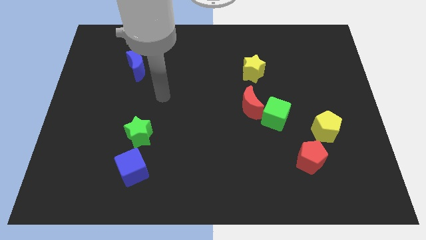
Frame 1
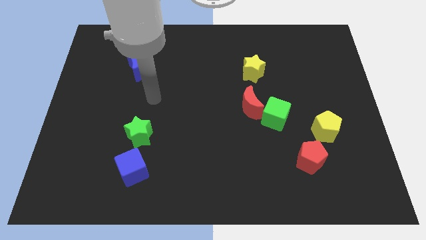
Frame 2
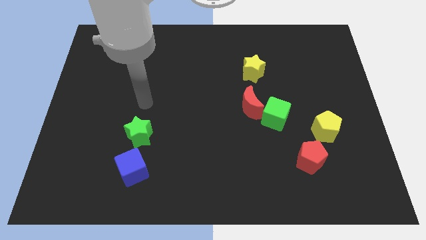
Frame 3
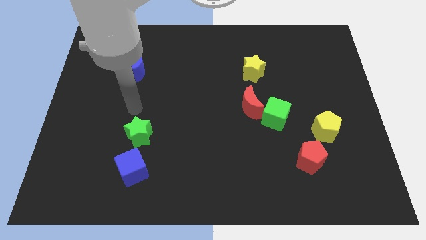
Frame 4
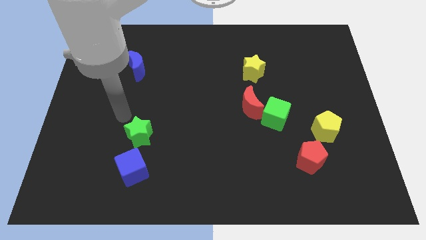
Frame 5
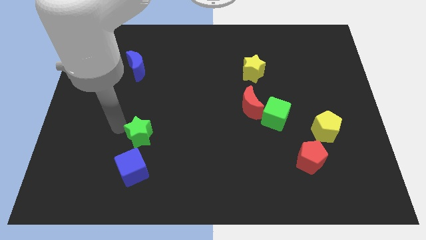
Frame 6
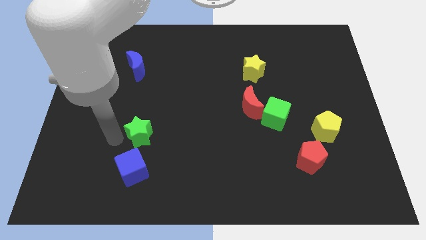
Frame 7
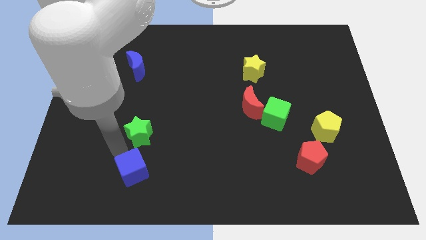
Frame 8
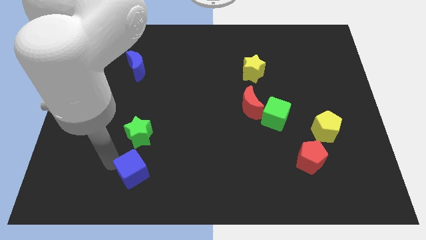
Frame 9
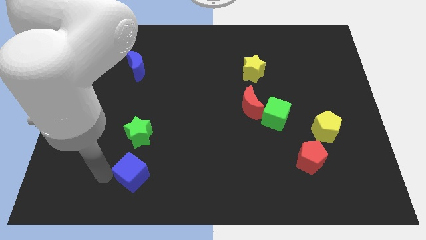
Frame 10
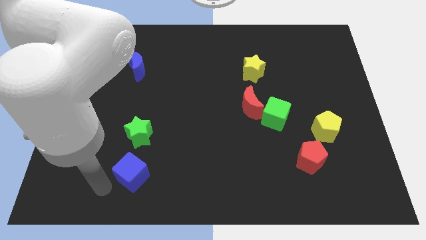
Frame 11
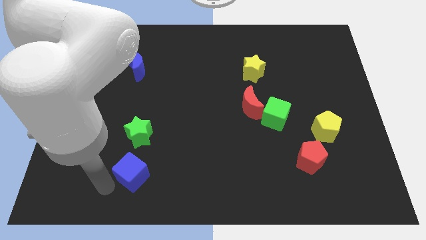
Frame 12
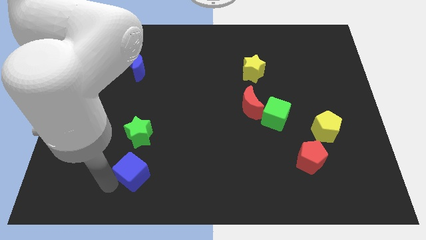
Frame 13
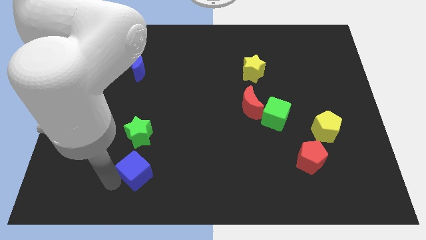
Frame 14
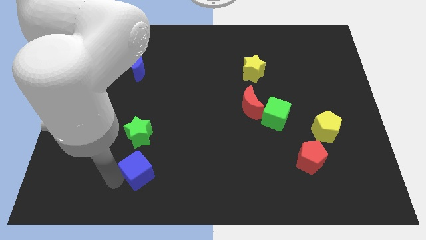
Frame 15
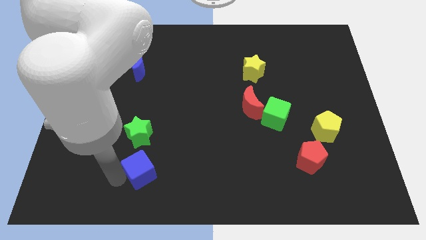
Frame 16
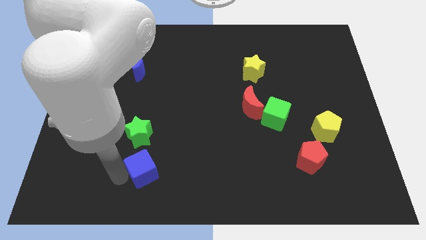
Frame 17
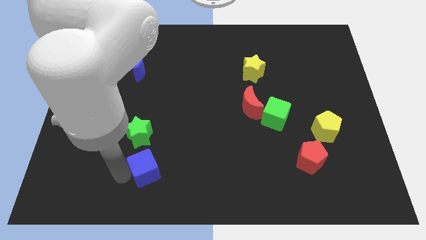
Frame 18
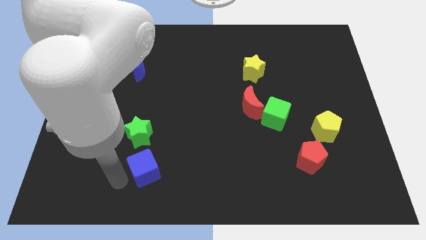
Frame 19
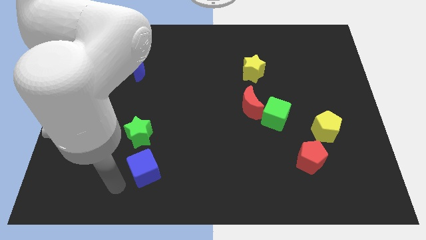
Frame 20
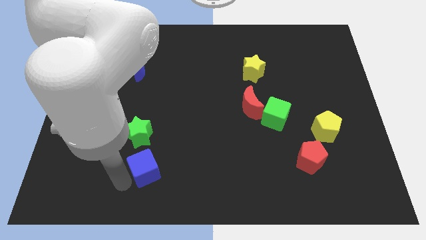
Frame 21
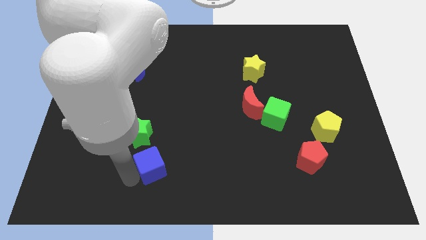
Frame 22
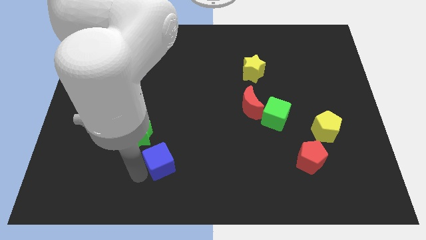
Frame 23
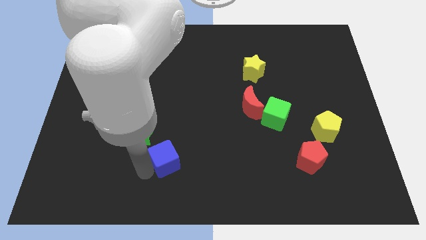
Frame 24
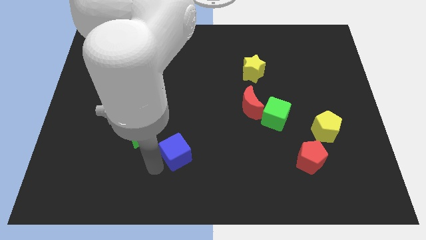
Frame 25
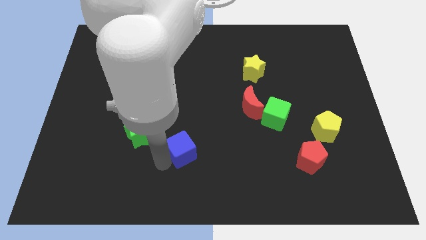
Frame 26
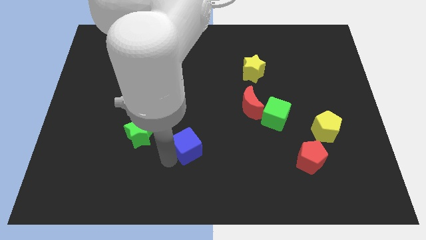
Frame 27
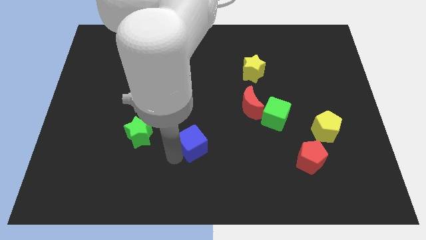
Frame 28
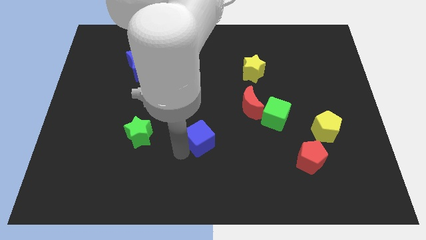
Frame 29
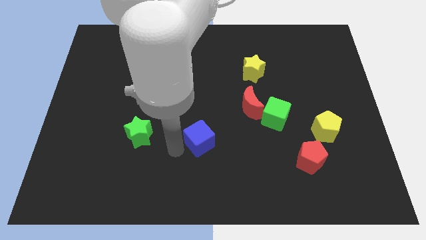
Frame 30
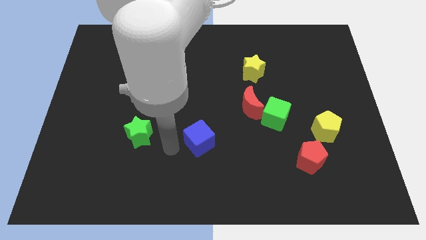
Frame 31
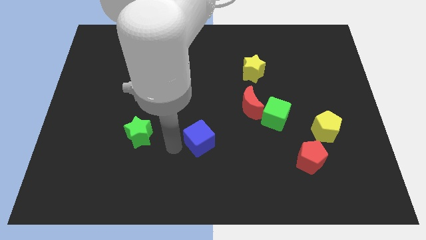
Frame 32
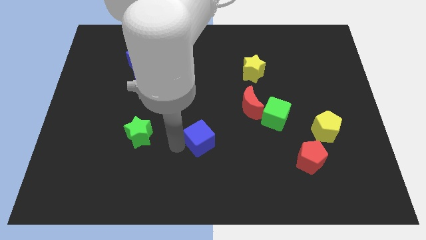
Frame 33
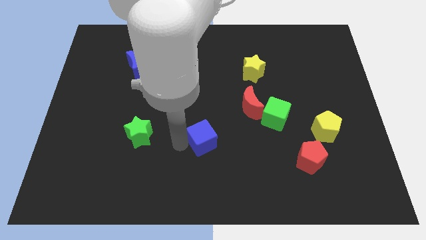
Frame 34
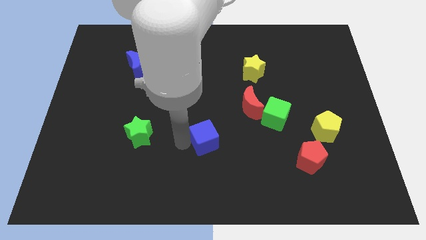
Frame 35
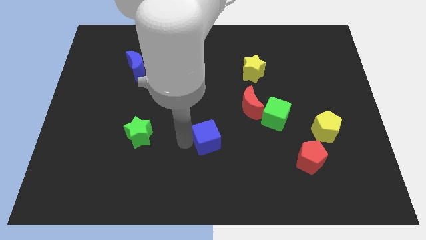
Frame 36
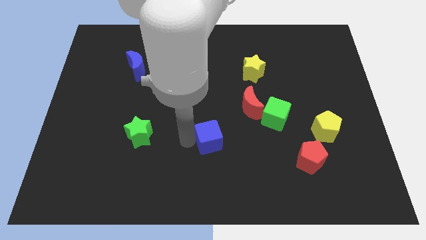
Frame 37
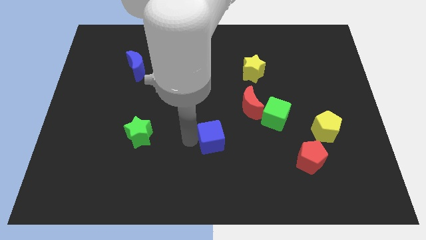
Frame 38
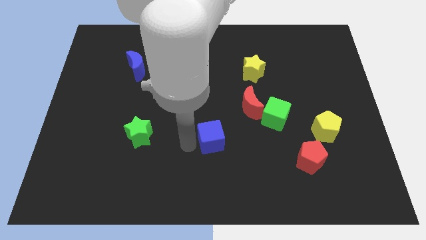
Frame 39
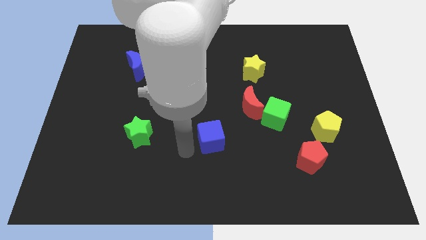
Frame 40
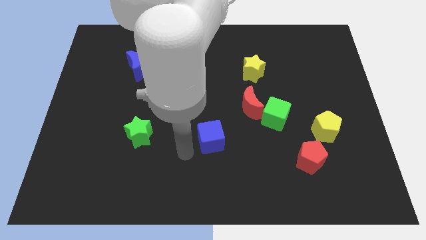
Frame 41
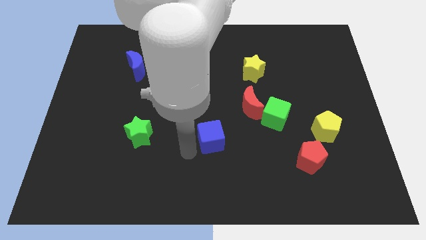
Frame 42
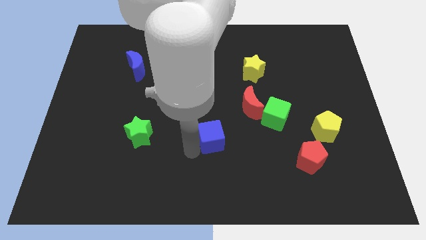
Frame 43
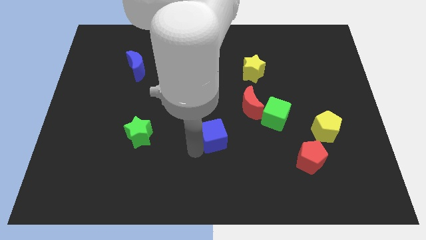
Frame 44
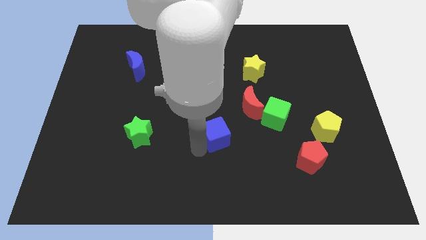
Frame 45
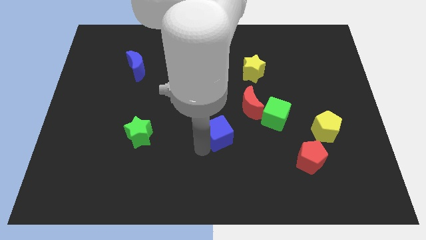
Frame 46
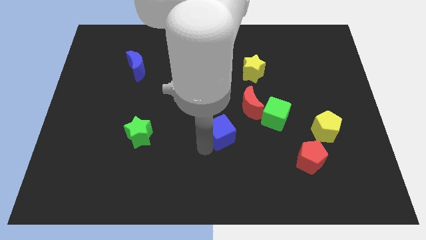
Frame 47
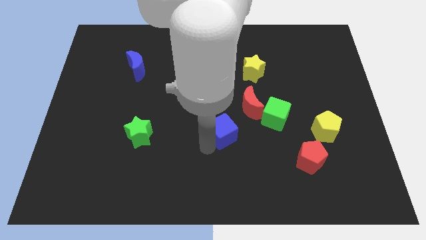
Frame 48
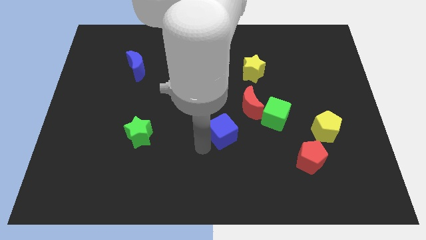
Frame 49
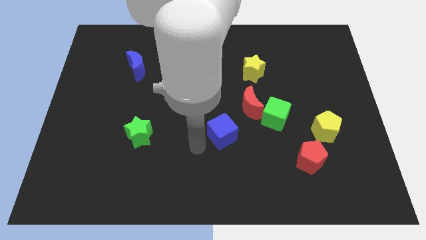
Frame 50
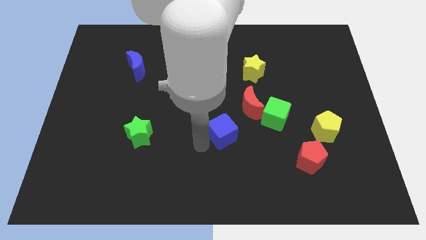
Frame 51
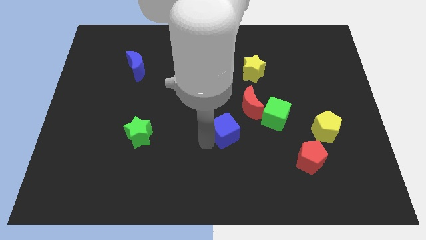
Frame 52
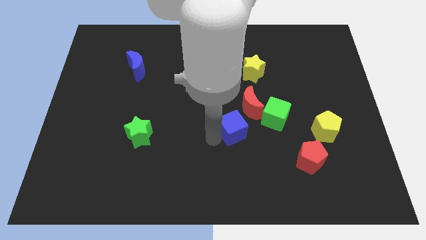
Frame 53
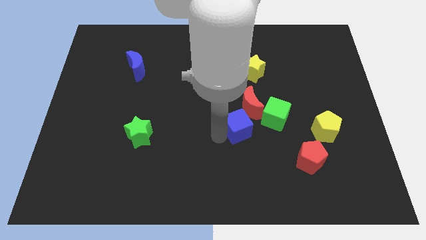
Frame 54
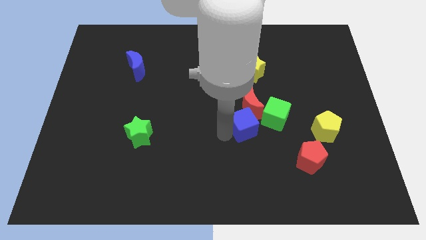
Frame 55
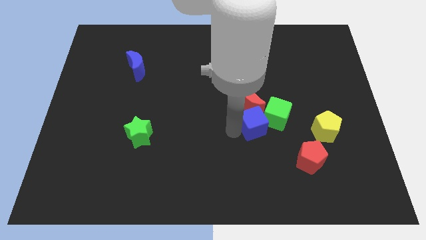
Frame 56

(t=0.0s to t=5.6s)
push the blue cube towards the green cube

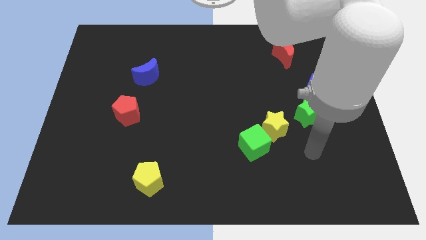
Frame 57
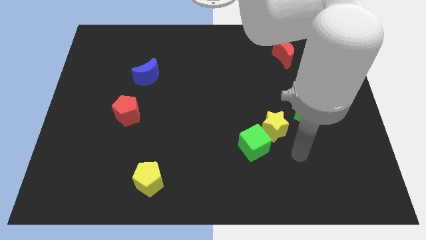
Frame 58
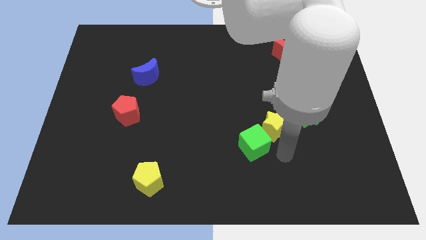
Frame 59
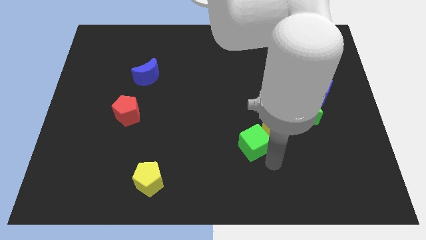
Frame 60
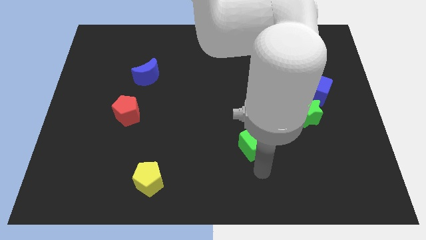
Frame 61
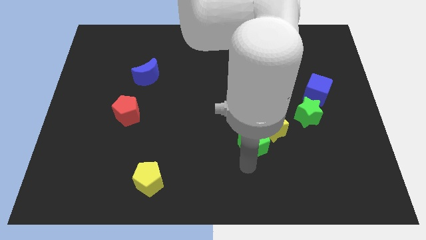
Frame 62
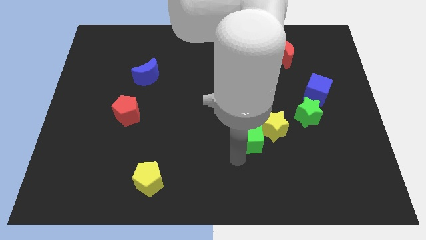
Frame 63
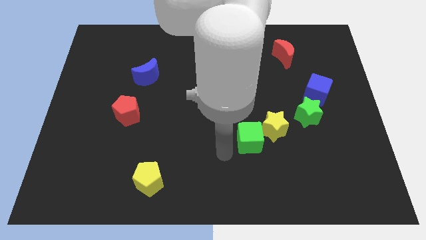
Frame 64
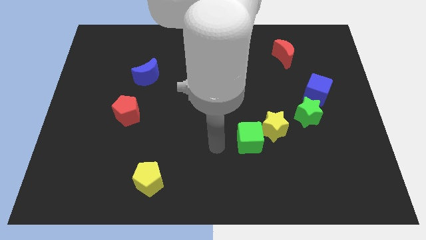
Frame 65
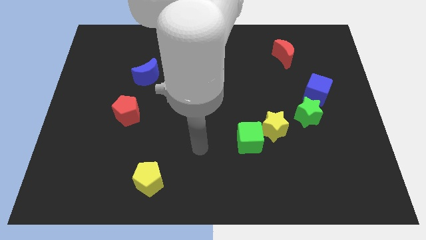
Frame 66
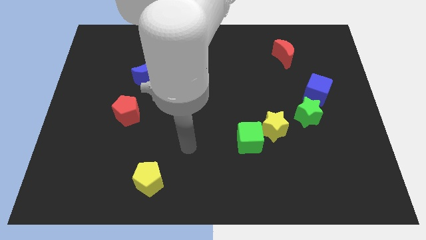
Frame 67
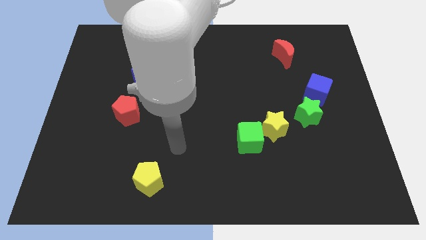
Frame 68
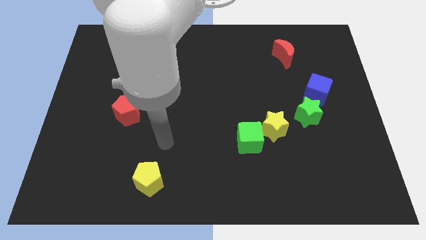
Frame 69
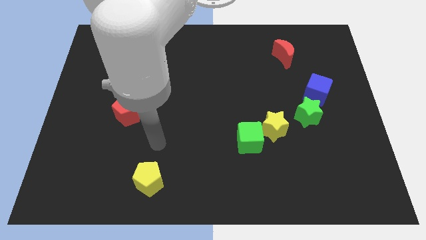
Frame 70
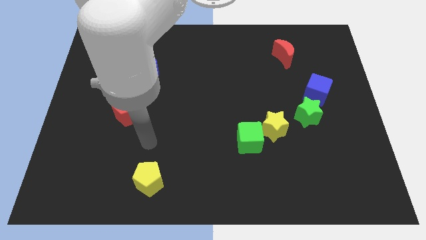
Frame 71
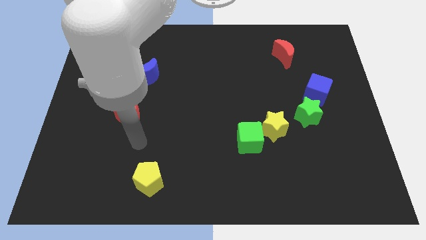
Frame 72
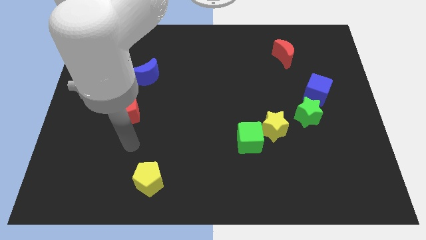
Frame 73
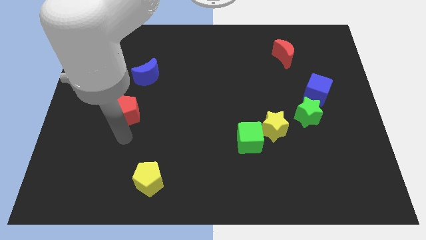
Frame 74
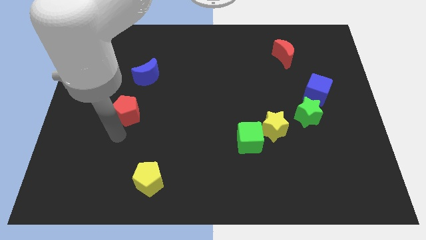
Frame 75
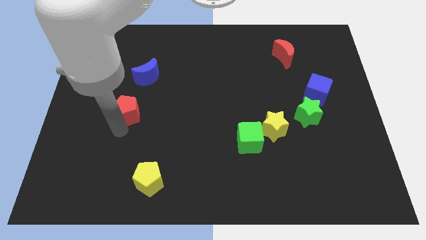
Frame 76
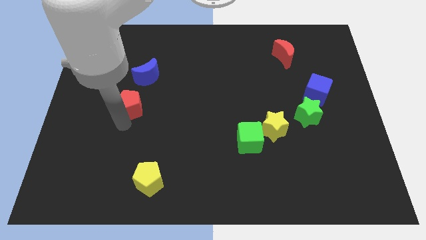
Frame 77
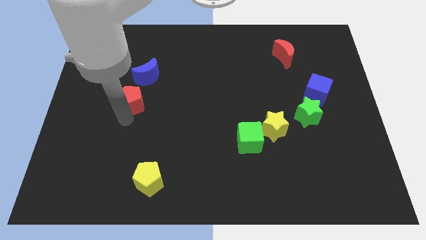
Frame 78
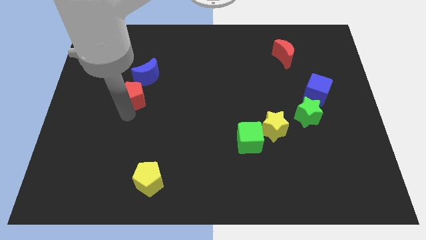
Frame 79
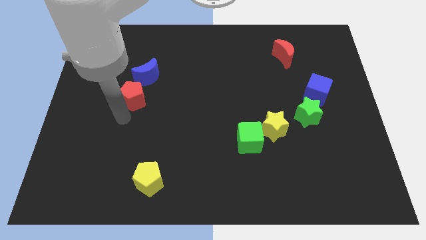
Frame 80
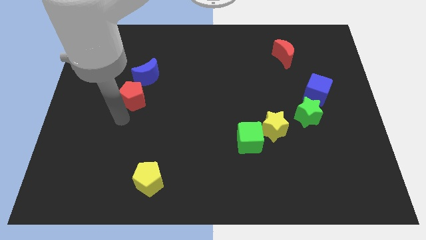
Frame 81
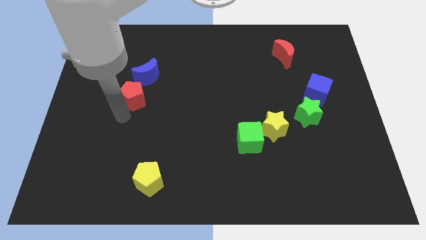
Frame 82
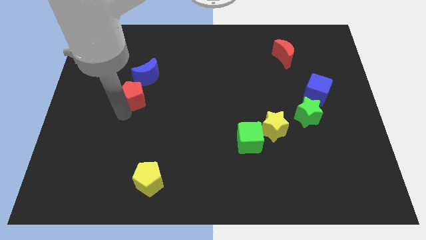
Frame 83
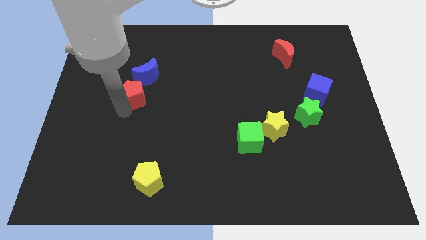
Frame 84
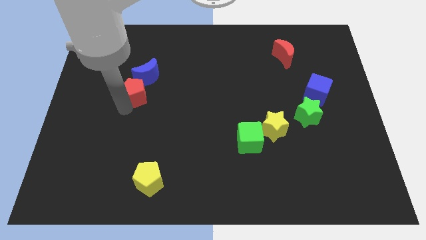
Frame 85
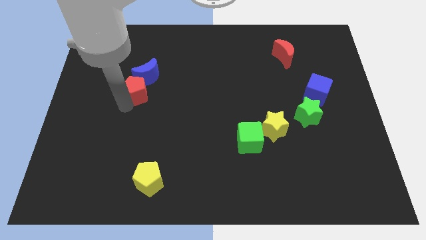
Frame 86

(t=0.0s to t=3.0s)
move the red pentagon close to the blue moon
